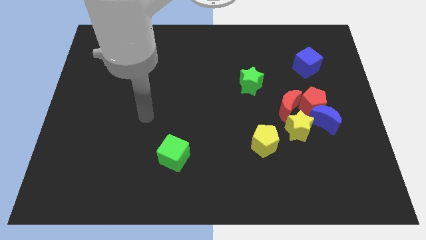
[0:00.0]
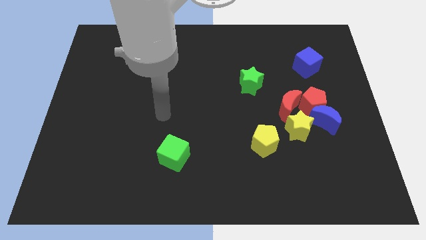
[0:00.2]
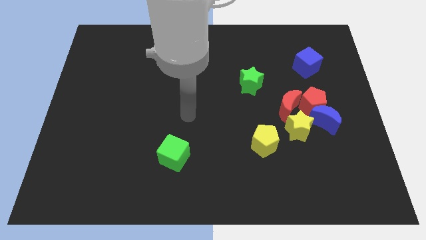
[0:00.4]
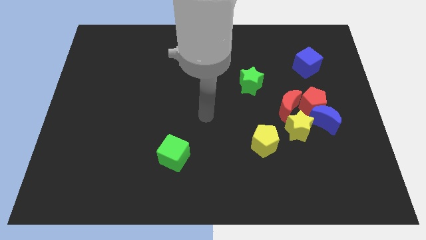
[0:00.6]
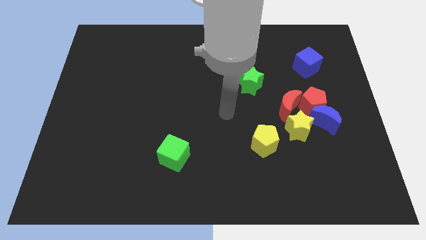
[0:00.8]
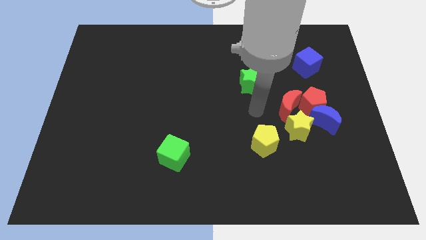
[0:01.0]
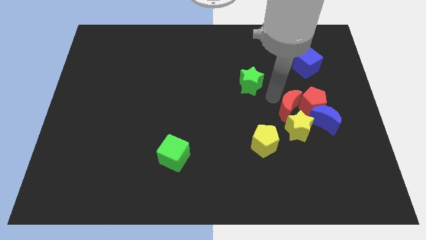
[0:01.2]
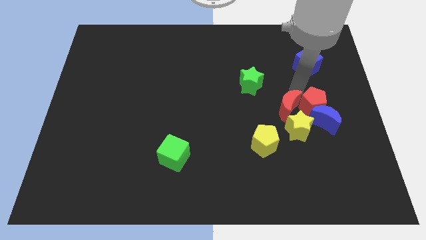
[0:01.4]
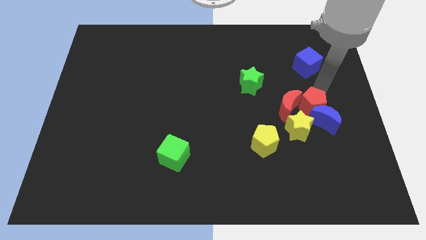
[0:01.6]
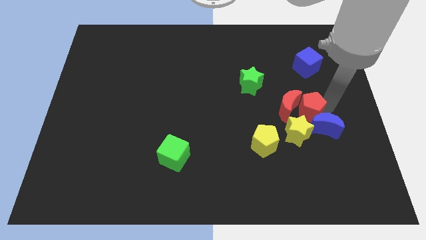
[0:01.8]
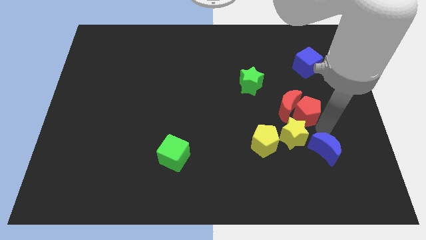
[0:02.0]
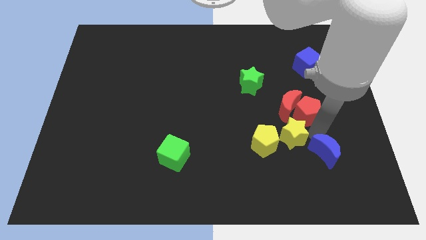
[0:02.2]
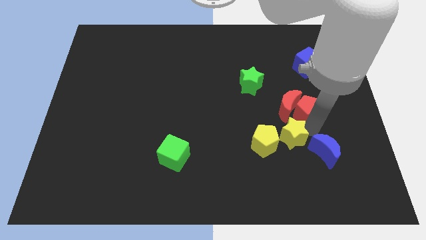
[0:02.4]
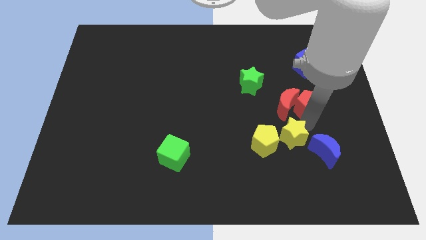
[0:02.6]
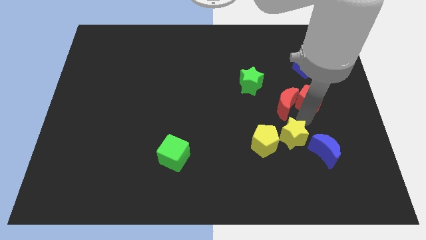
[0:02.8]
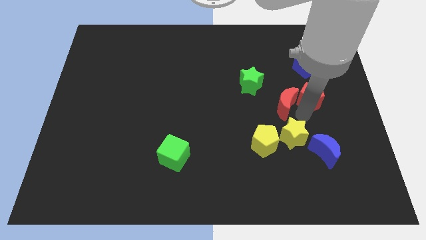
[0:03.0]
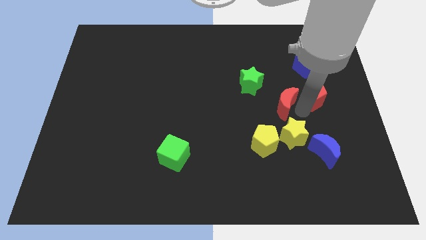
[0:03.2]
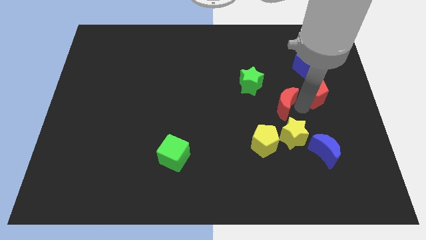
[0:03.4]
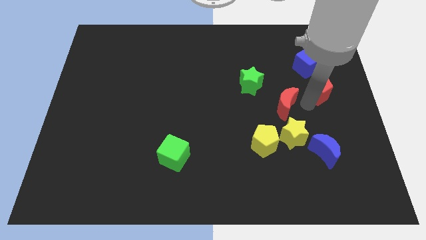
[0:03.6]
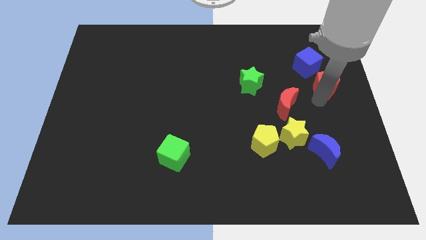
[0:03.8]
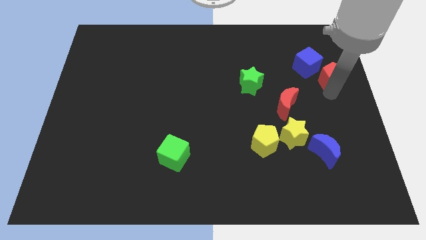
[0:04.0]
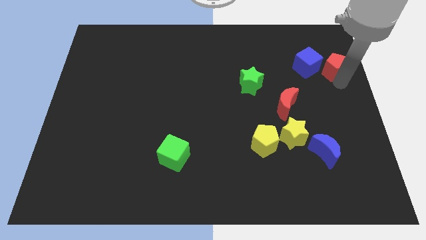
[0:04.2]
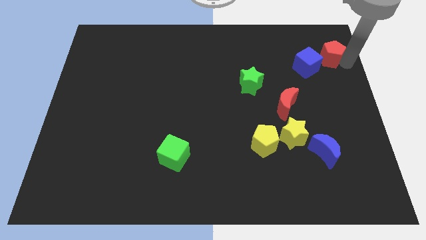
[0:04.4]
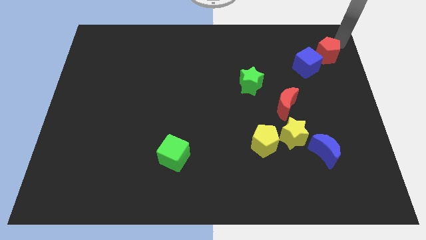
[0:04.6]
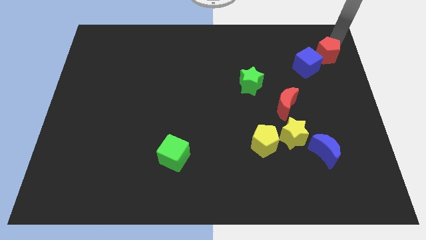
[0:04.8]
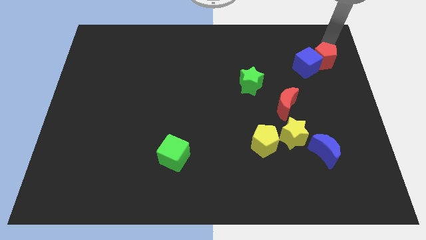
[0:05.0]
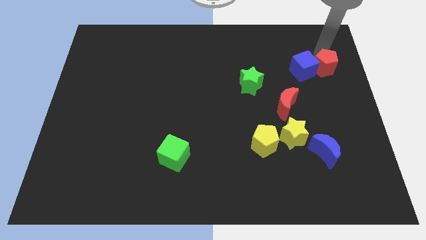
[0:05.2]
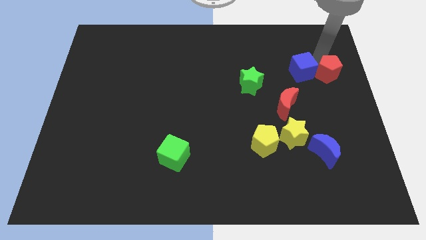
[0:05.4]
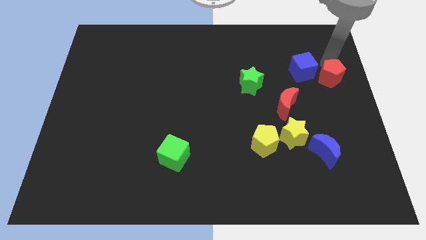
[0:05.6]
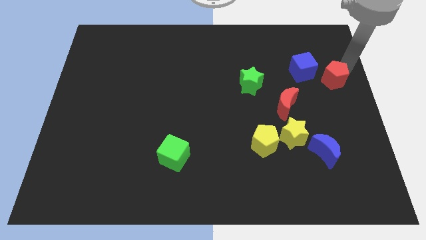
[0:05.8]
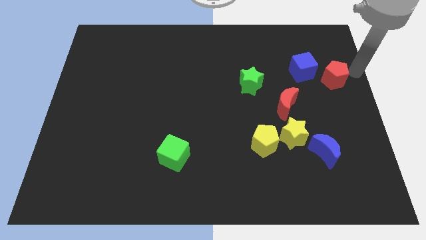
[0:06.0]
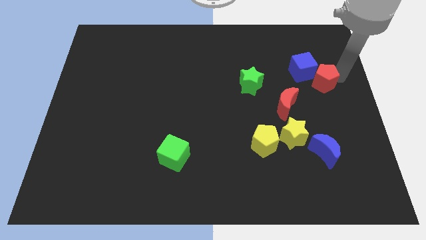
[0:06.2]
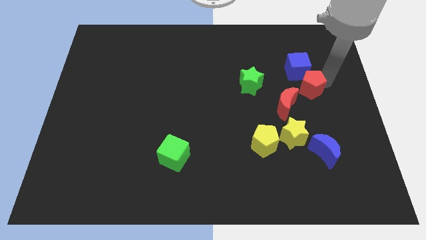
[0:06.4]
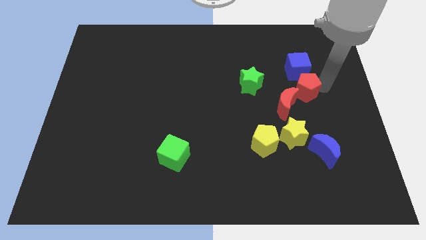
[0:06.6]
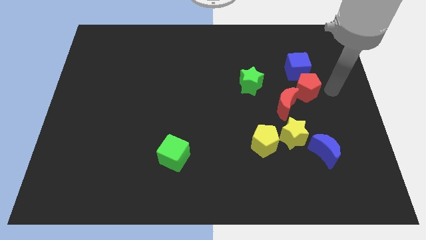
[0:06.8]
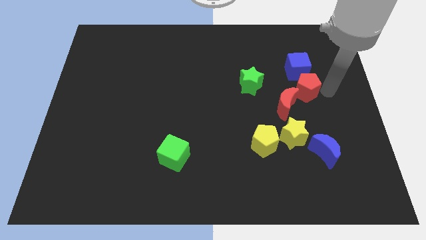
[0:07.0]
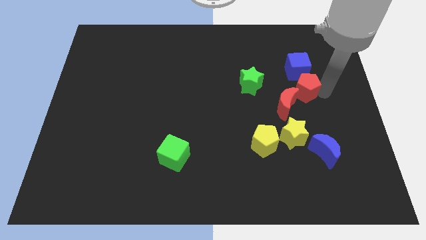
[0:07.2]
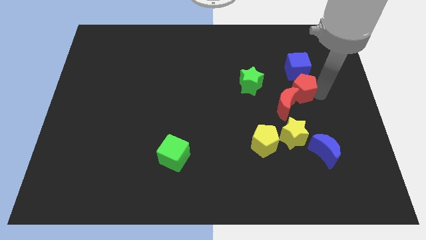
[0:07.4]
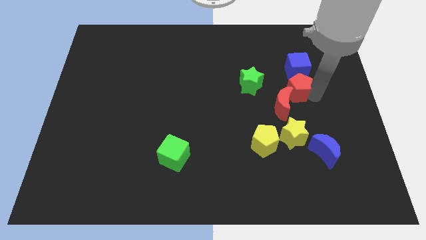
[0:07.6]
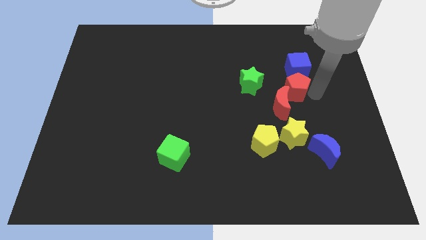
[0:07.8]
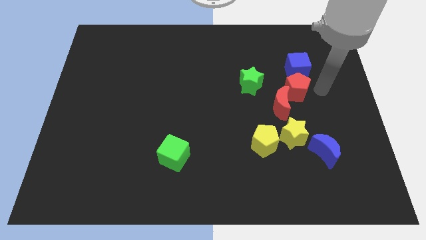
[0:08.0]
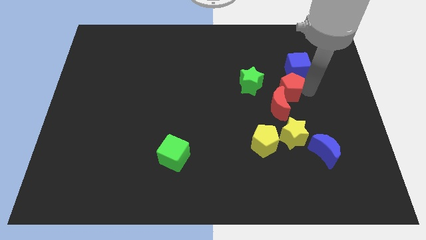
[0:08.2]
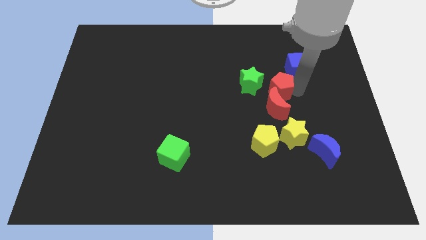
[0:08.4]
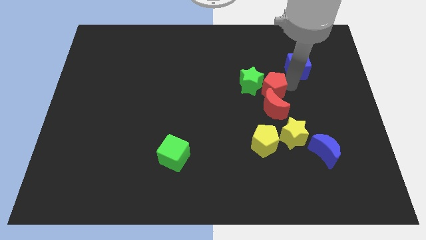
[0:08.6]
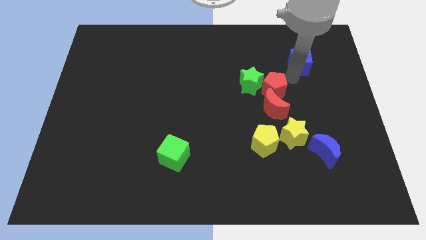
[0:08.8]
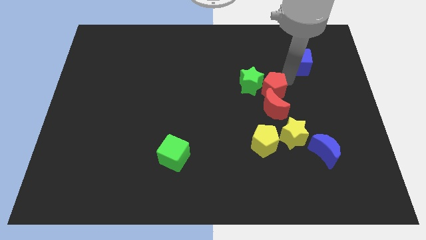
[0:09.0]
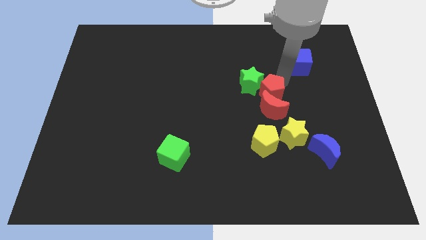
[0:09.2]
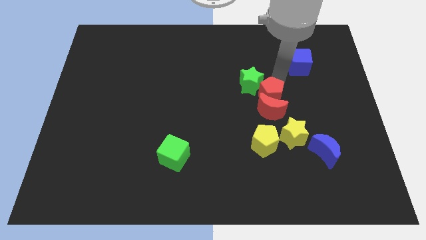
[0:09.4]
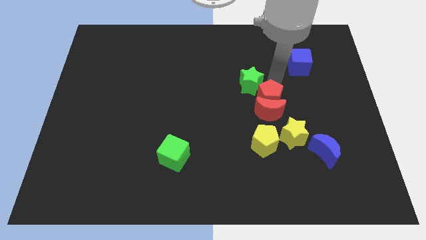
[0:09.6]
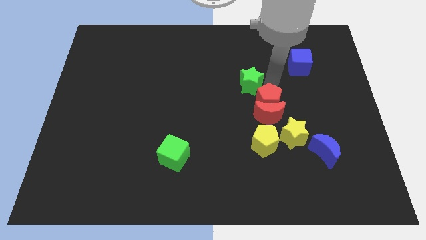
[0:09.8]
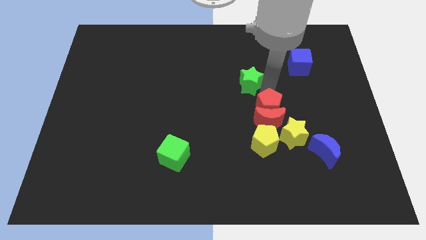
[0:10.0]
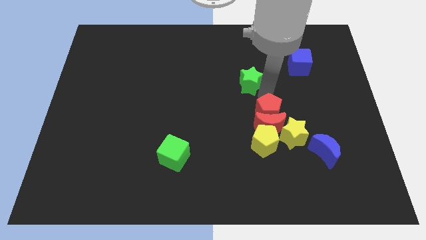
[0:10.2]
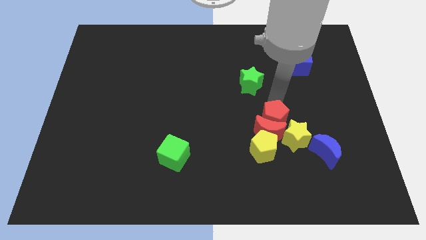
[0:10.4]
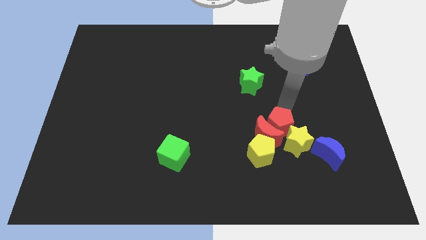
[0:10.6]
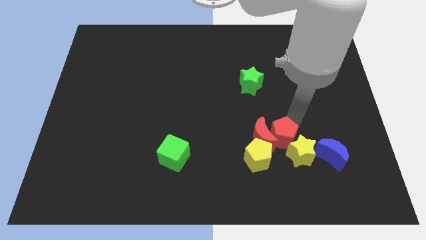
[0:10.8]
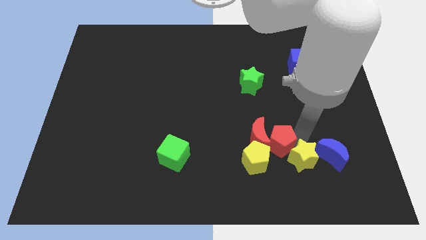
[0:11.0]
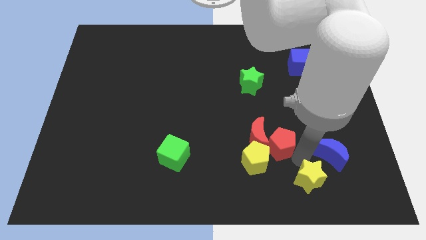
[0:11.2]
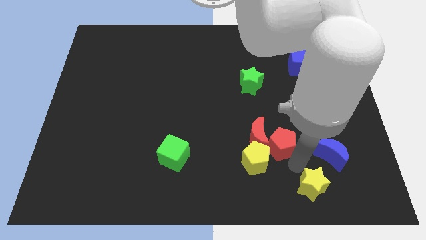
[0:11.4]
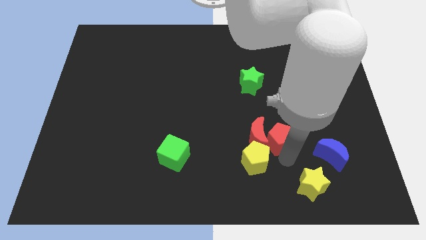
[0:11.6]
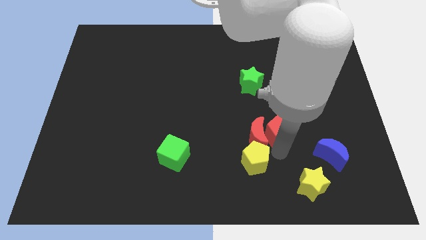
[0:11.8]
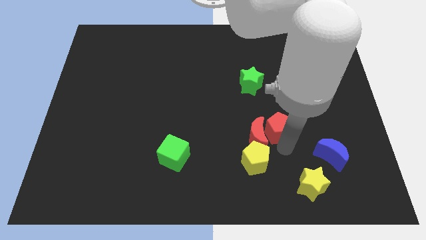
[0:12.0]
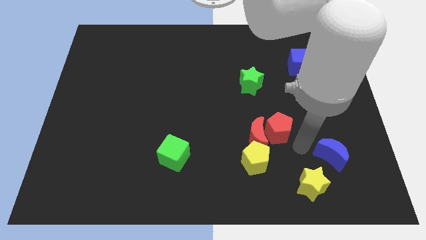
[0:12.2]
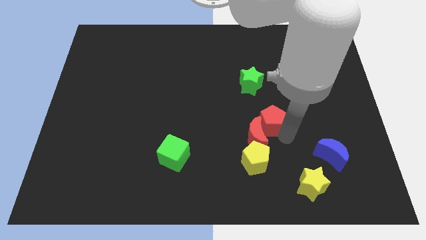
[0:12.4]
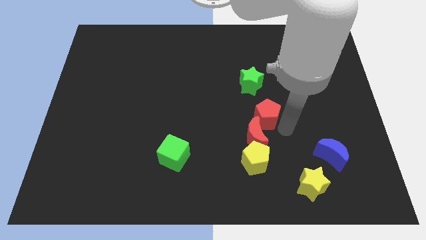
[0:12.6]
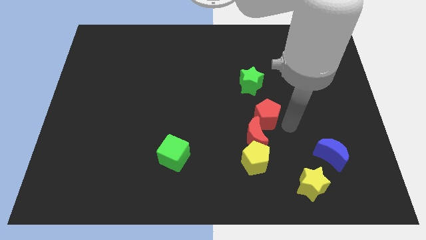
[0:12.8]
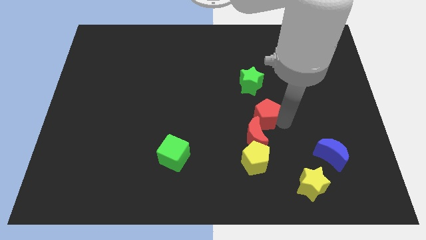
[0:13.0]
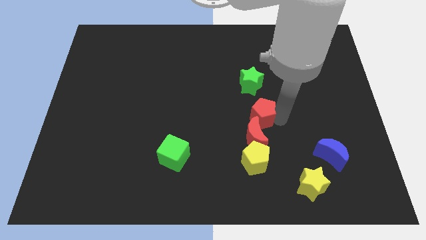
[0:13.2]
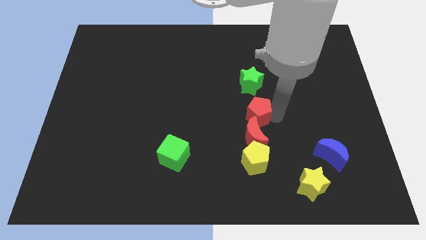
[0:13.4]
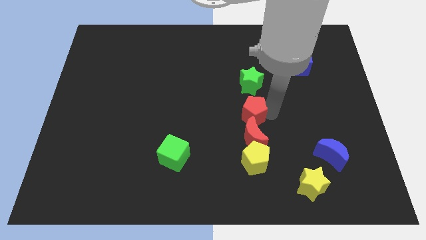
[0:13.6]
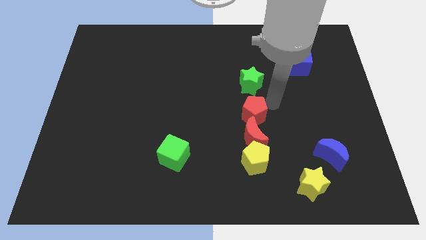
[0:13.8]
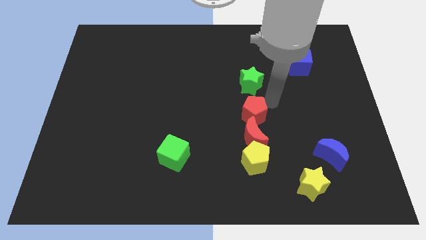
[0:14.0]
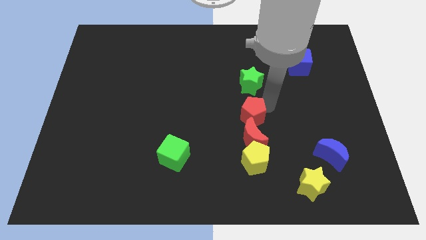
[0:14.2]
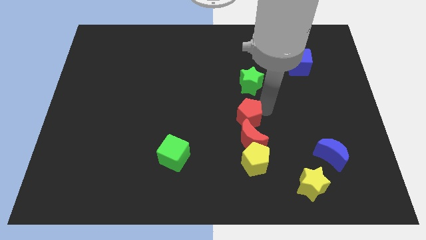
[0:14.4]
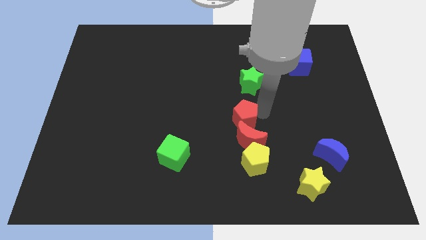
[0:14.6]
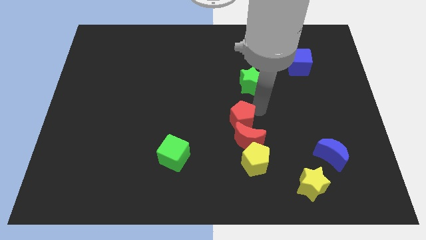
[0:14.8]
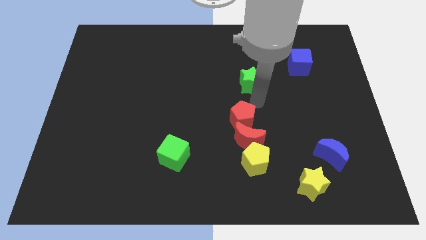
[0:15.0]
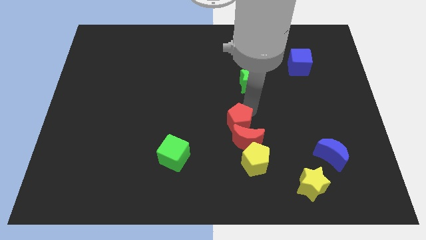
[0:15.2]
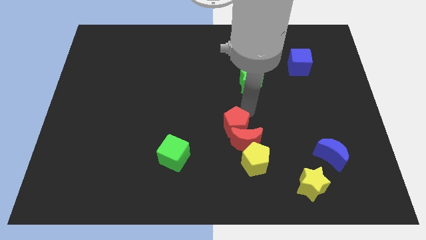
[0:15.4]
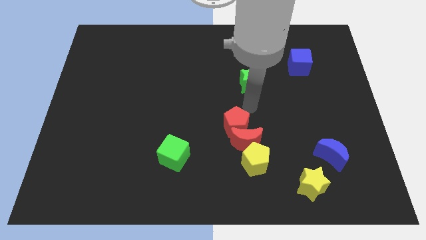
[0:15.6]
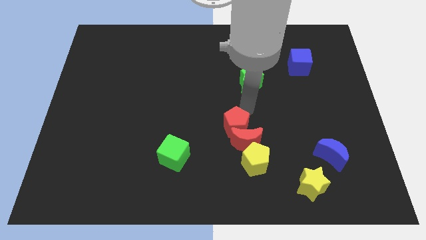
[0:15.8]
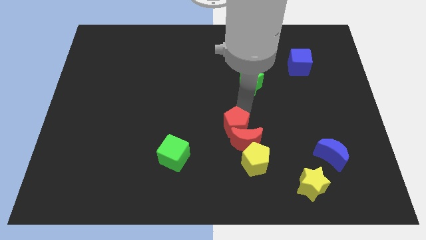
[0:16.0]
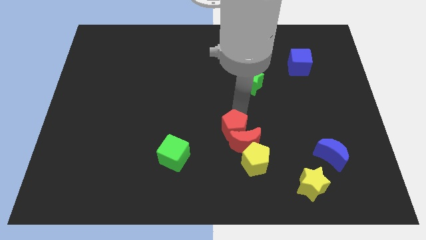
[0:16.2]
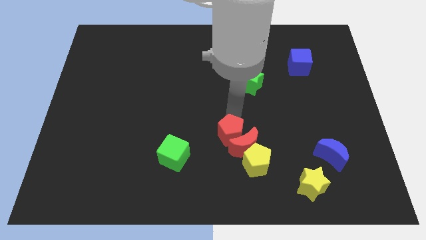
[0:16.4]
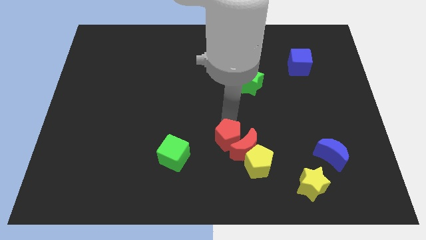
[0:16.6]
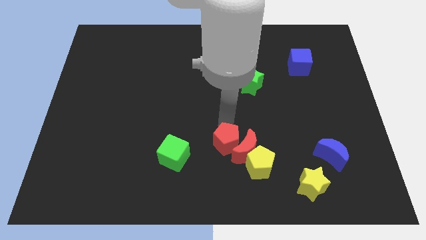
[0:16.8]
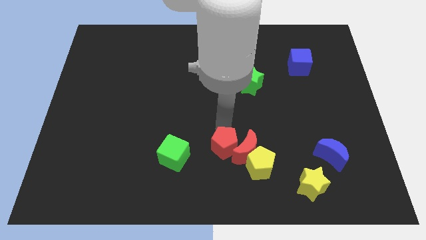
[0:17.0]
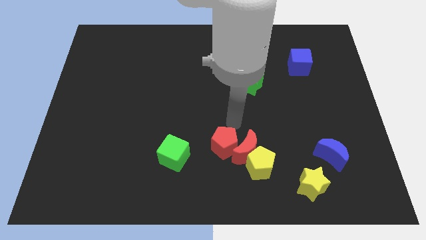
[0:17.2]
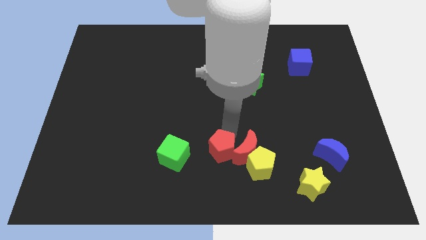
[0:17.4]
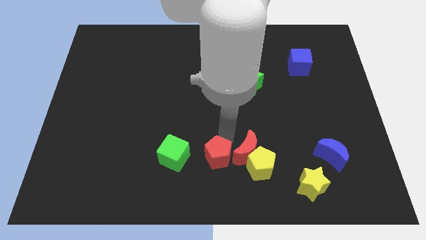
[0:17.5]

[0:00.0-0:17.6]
push the red pentagon to the bottom
